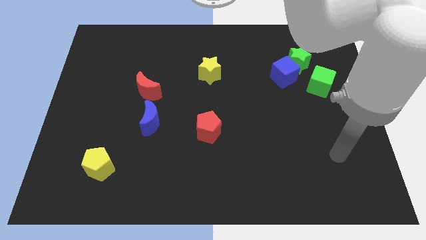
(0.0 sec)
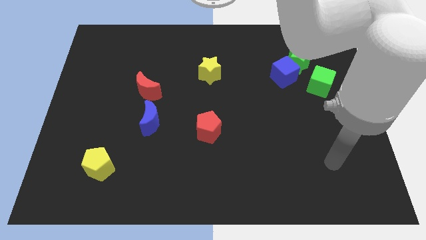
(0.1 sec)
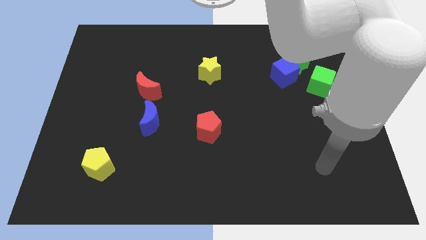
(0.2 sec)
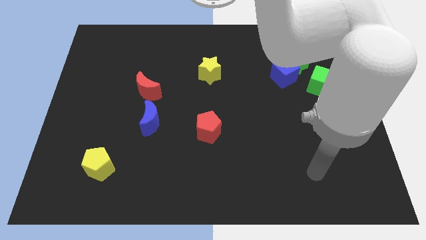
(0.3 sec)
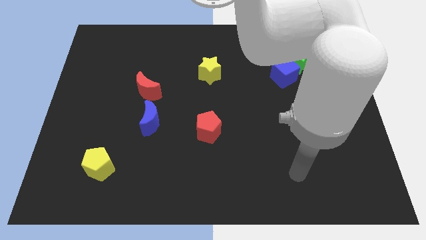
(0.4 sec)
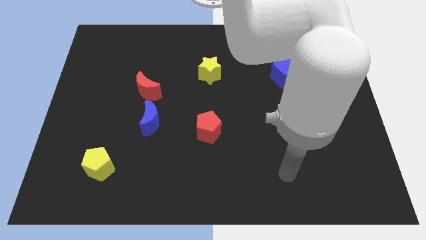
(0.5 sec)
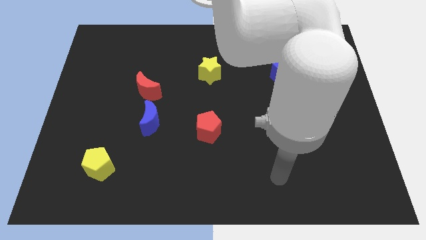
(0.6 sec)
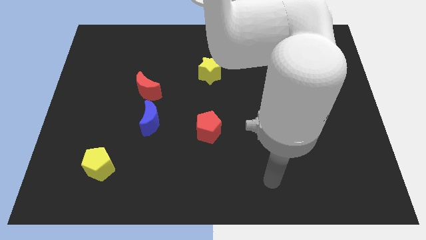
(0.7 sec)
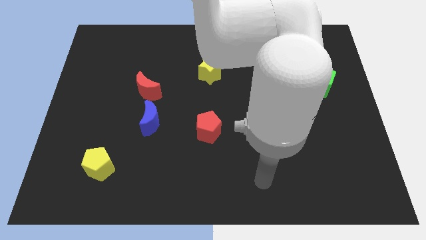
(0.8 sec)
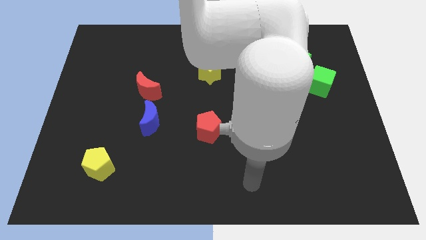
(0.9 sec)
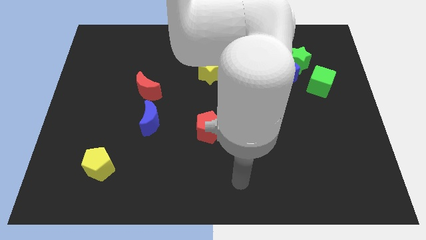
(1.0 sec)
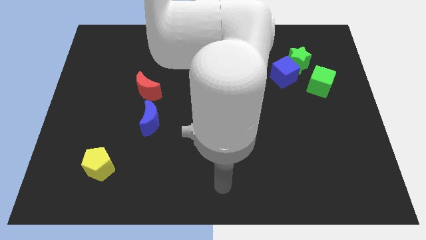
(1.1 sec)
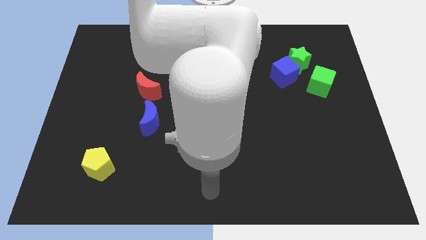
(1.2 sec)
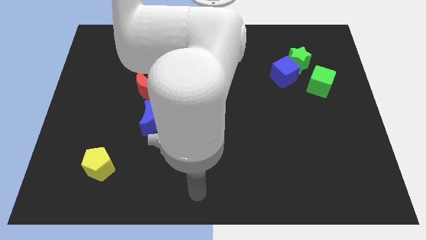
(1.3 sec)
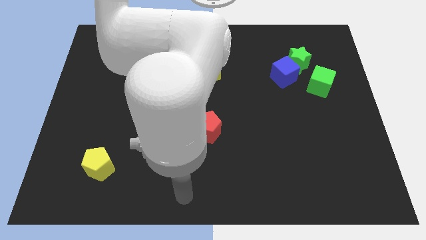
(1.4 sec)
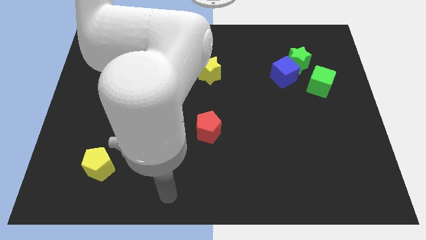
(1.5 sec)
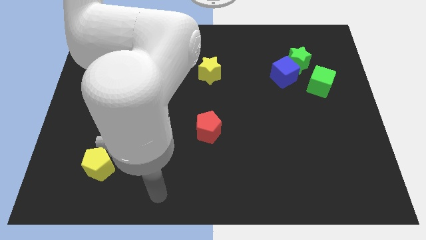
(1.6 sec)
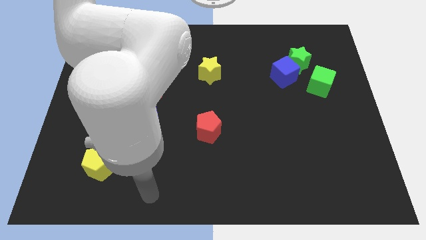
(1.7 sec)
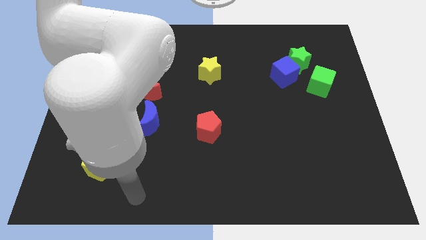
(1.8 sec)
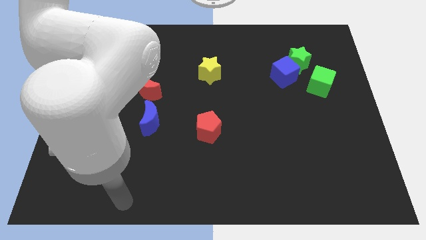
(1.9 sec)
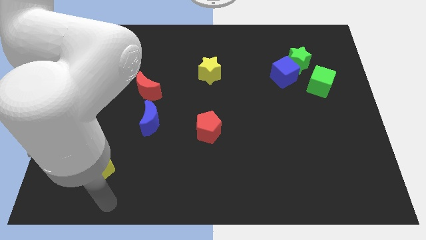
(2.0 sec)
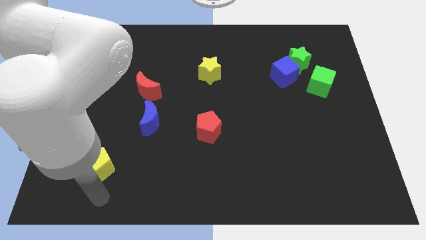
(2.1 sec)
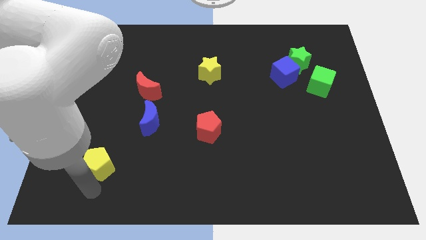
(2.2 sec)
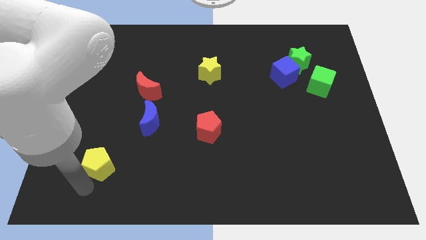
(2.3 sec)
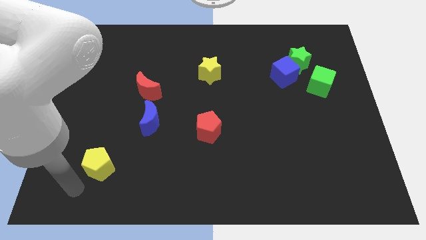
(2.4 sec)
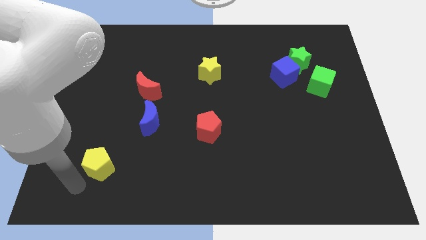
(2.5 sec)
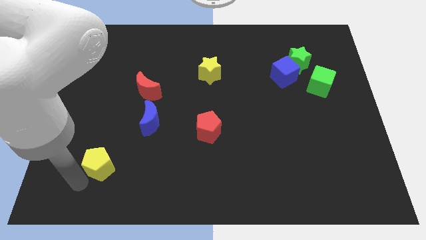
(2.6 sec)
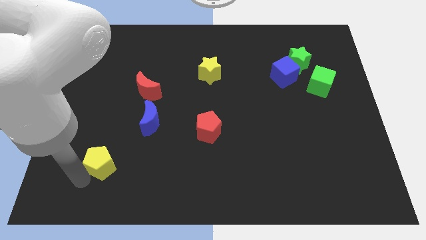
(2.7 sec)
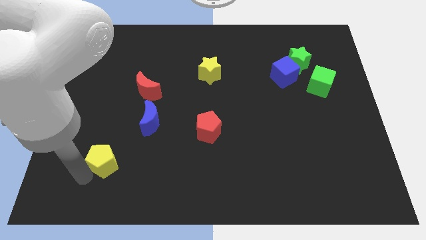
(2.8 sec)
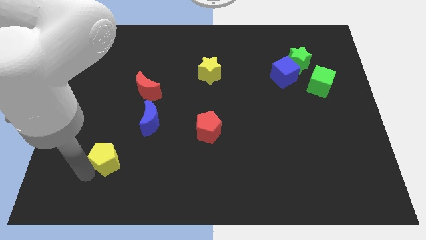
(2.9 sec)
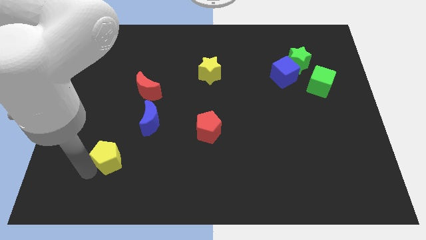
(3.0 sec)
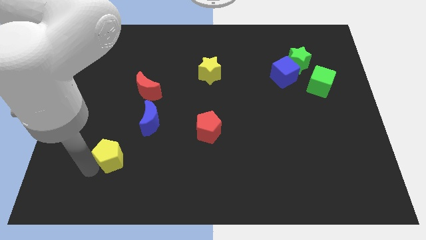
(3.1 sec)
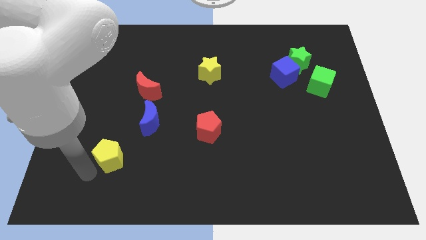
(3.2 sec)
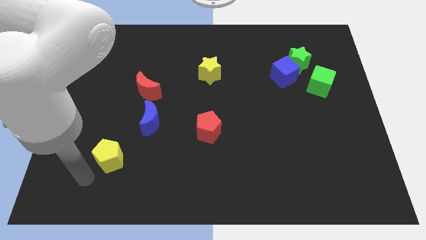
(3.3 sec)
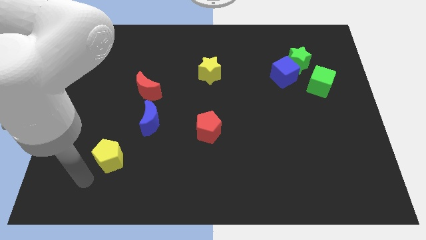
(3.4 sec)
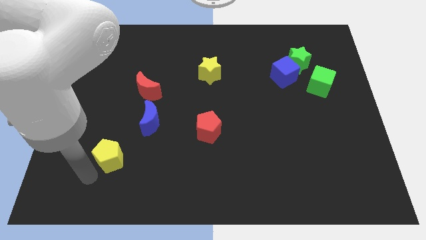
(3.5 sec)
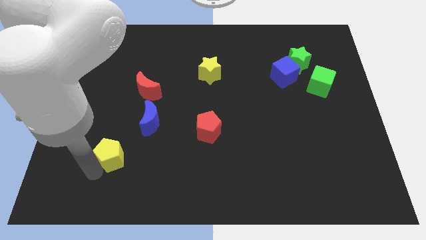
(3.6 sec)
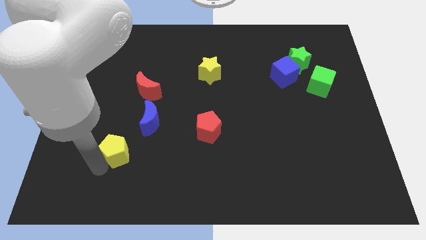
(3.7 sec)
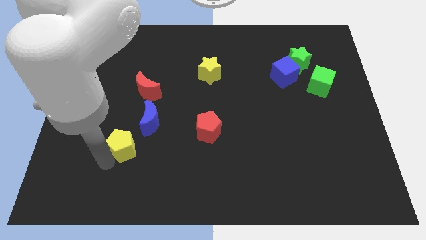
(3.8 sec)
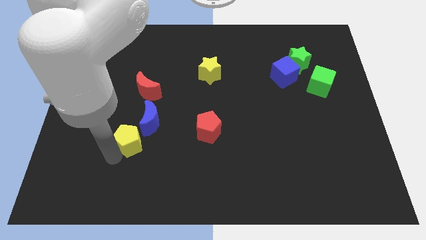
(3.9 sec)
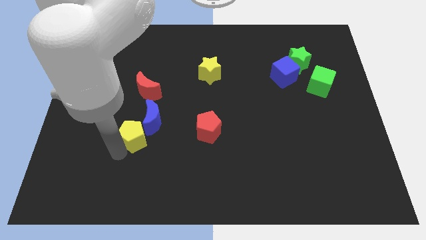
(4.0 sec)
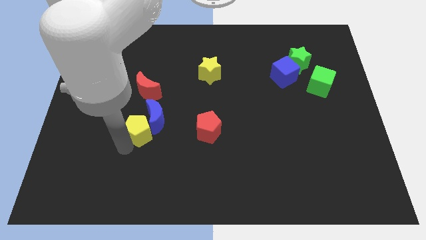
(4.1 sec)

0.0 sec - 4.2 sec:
push the yellow pentagon towards the blue moon

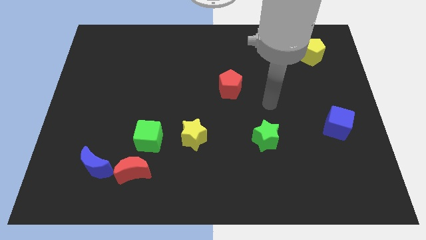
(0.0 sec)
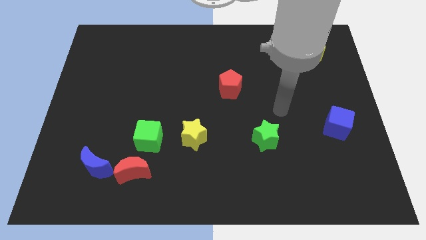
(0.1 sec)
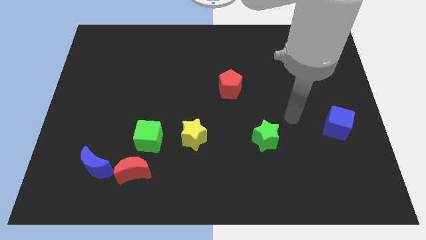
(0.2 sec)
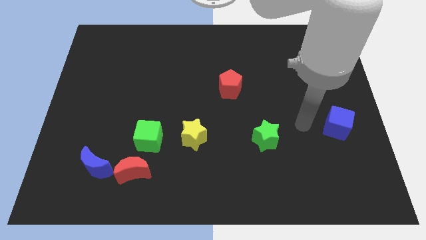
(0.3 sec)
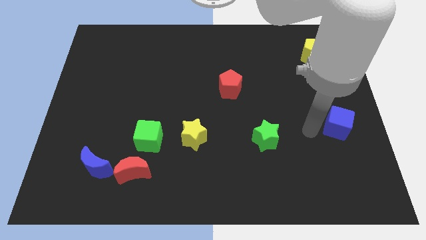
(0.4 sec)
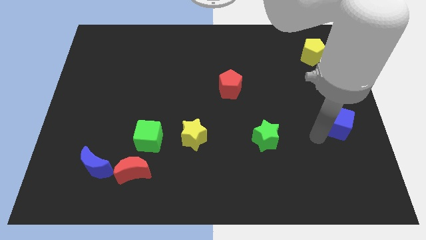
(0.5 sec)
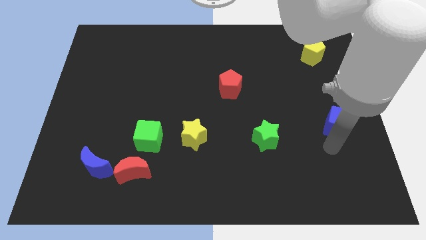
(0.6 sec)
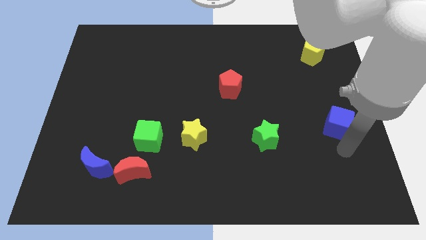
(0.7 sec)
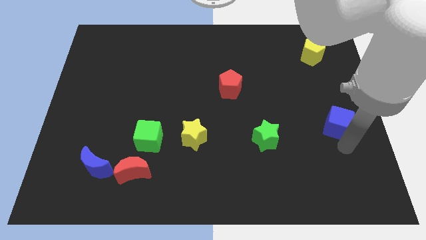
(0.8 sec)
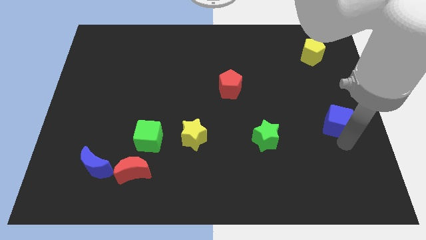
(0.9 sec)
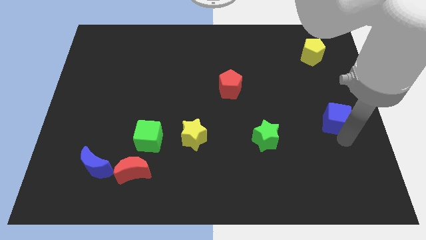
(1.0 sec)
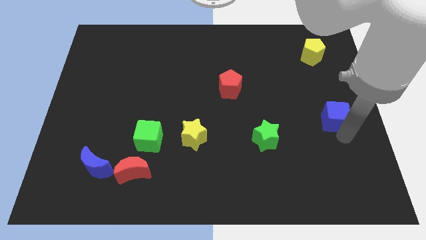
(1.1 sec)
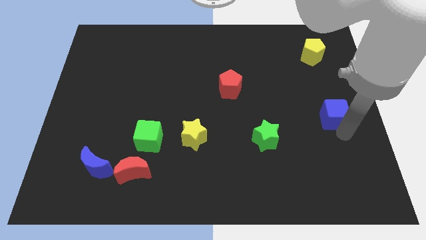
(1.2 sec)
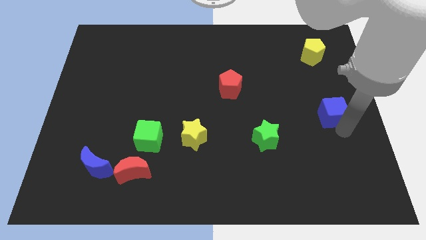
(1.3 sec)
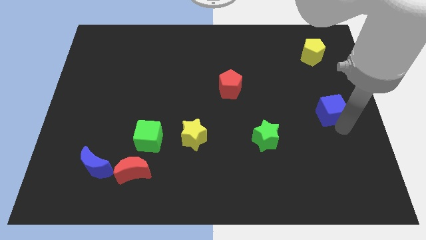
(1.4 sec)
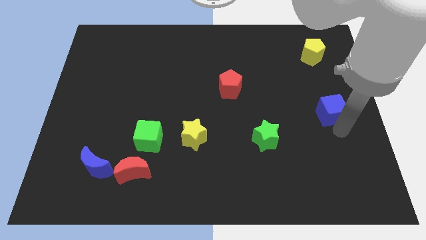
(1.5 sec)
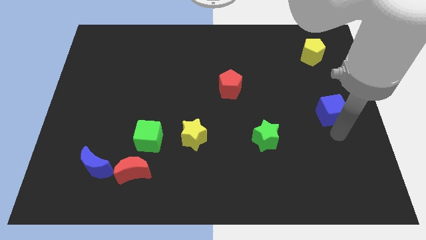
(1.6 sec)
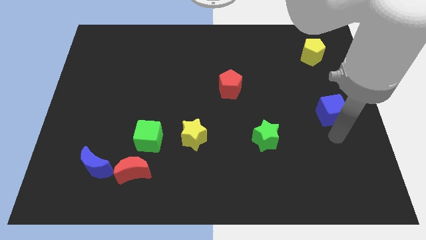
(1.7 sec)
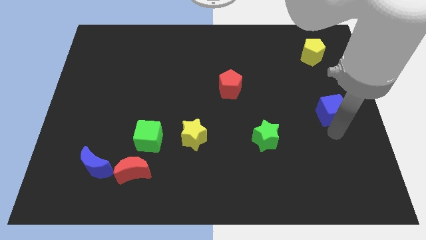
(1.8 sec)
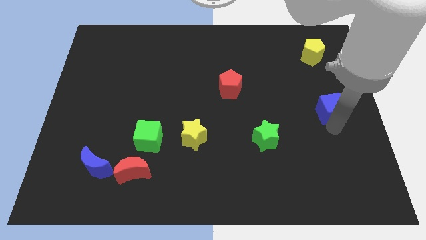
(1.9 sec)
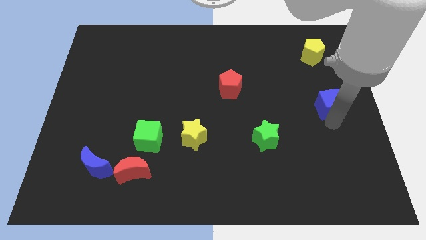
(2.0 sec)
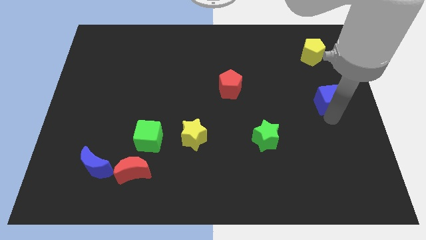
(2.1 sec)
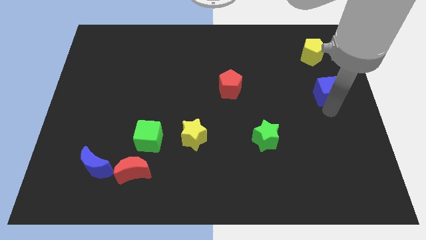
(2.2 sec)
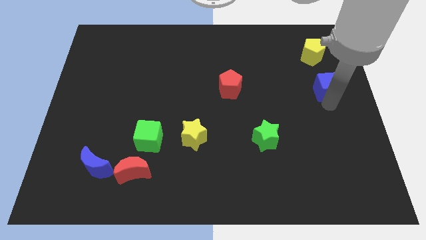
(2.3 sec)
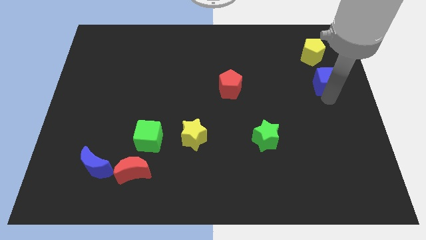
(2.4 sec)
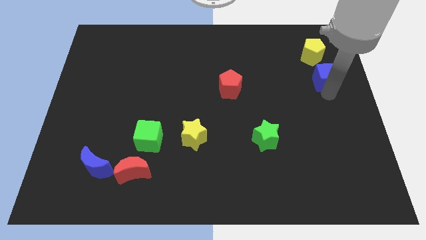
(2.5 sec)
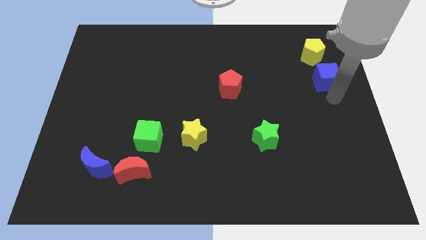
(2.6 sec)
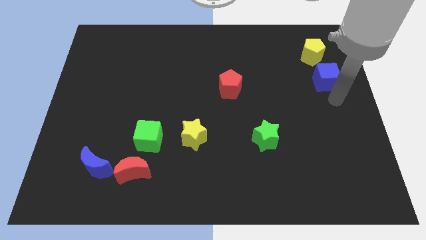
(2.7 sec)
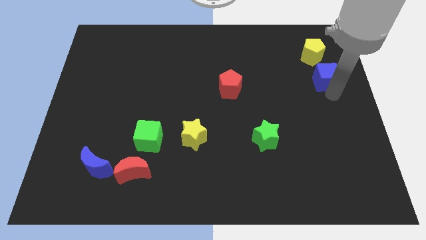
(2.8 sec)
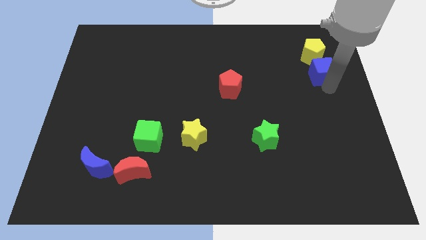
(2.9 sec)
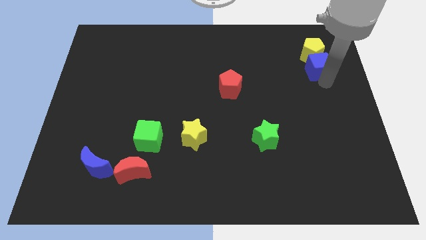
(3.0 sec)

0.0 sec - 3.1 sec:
push the blue cube next to the yellow pentagon

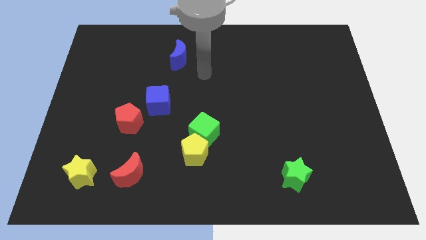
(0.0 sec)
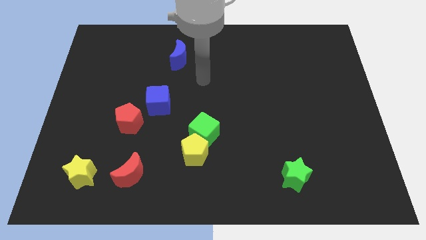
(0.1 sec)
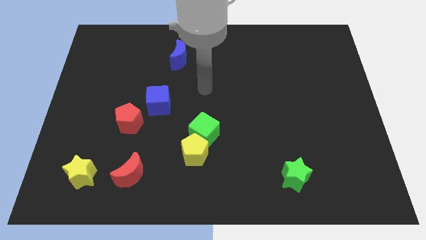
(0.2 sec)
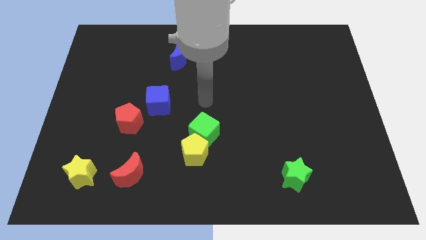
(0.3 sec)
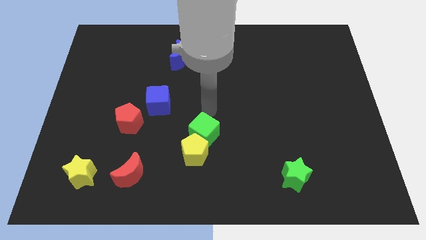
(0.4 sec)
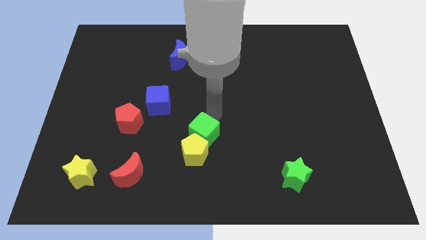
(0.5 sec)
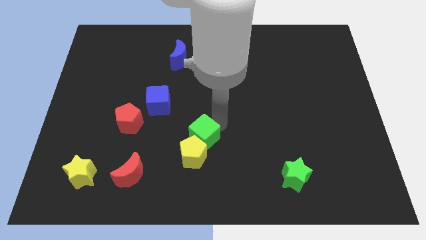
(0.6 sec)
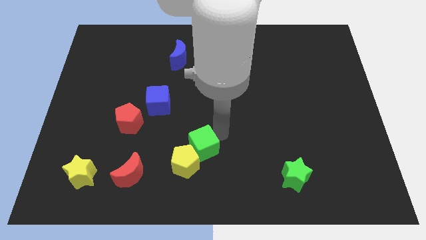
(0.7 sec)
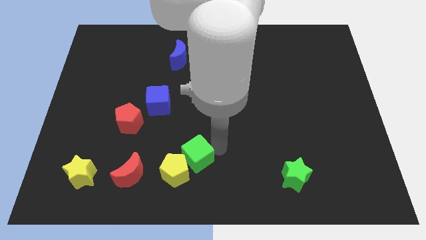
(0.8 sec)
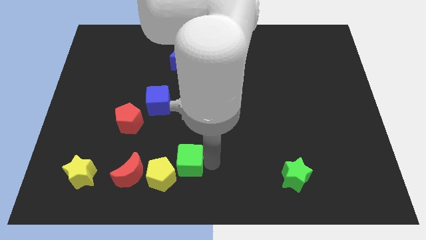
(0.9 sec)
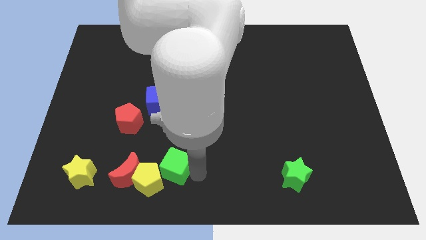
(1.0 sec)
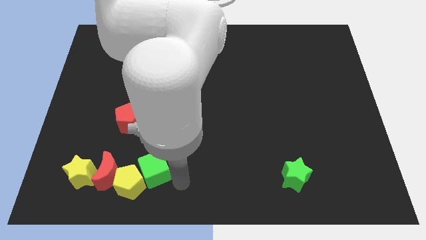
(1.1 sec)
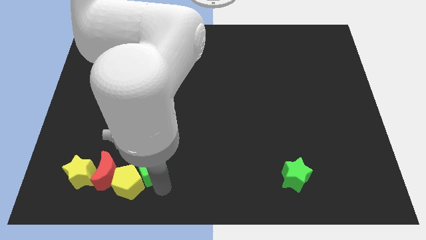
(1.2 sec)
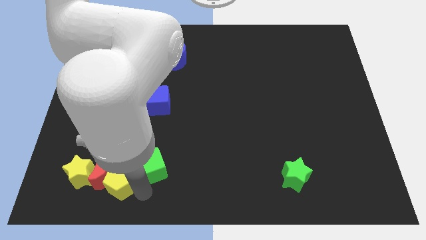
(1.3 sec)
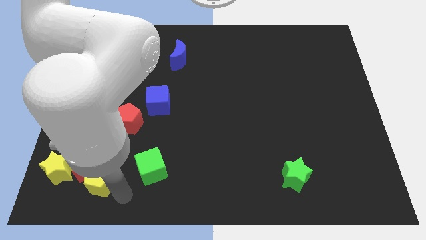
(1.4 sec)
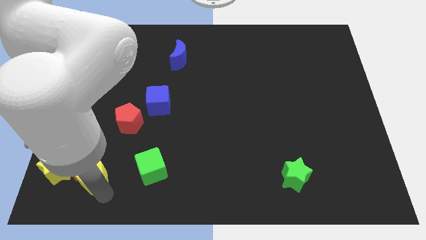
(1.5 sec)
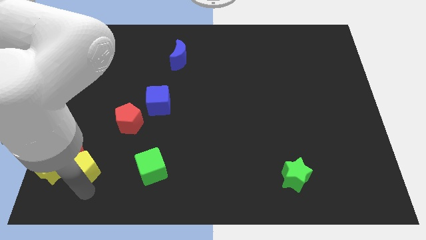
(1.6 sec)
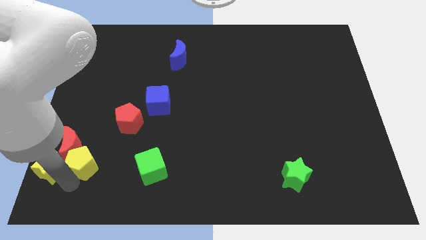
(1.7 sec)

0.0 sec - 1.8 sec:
push the yellow pentagon towards the yellow star
